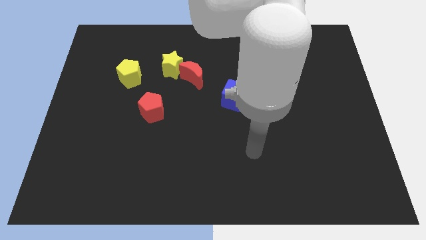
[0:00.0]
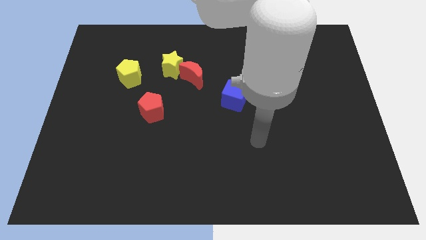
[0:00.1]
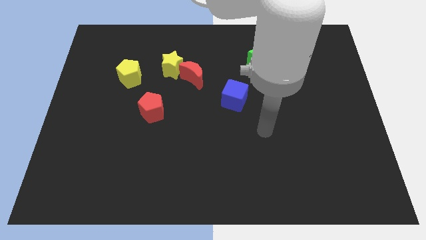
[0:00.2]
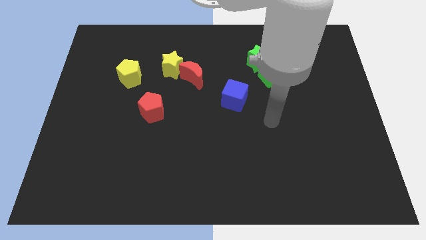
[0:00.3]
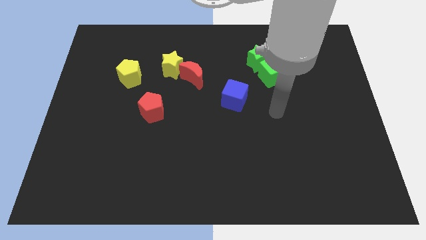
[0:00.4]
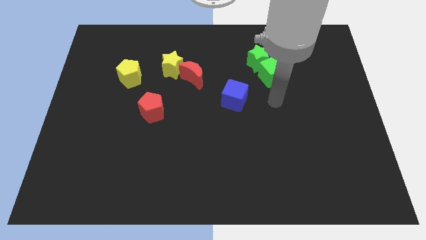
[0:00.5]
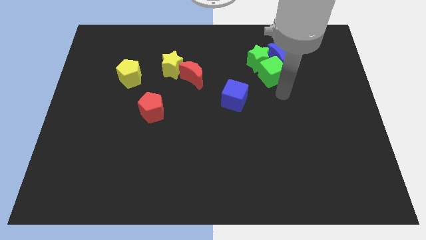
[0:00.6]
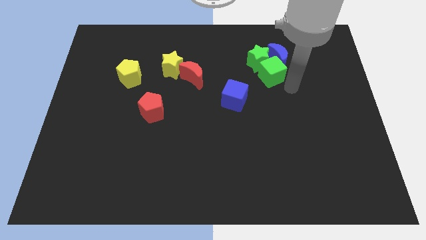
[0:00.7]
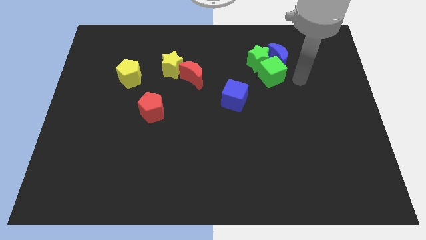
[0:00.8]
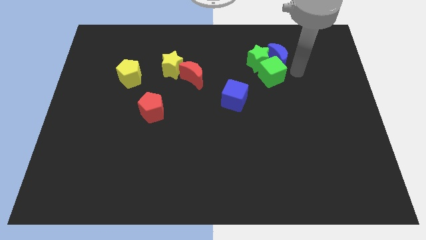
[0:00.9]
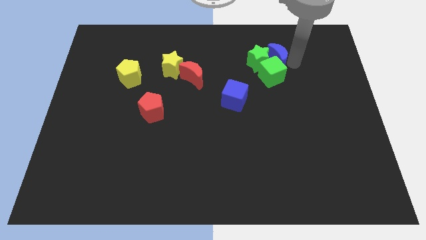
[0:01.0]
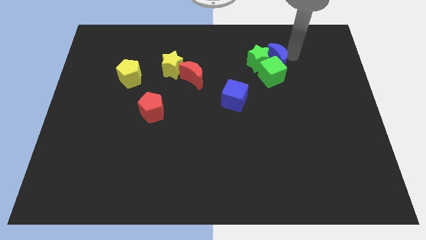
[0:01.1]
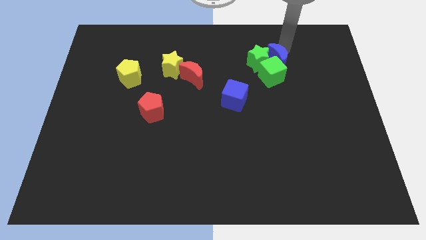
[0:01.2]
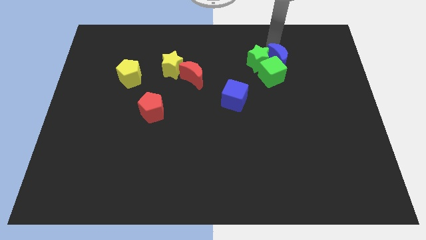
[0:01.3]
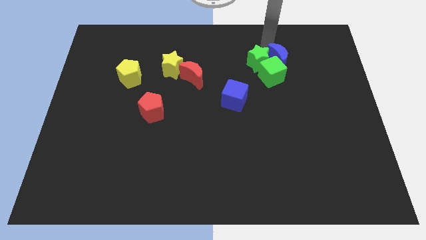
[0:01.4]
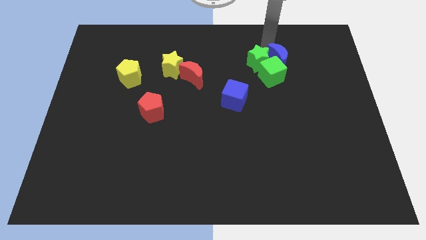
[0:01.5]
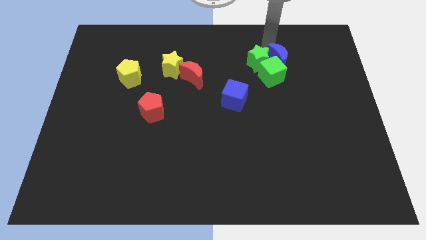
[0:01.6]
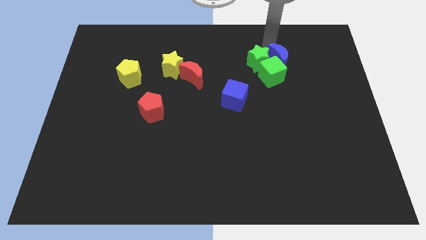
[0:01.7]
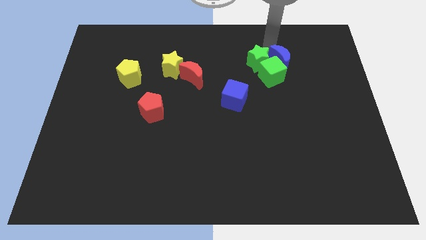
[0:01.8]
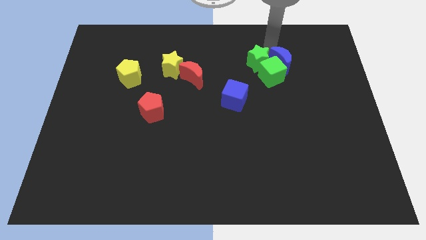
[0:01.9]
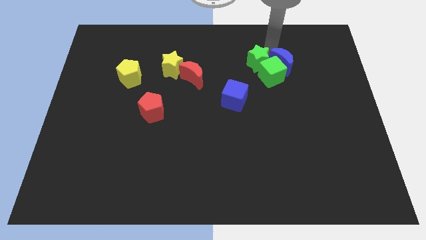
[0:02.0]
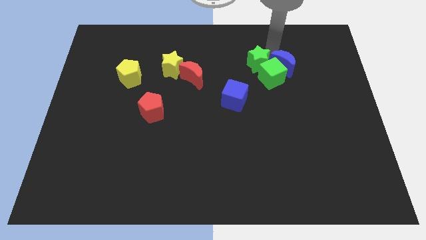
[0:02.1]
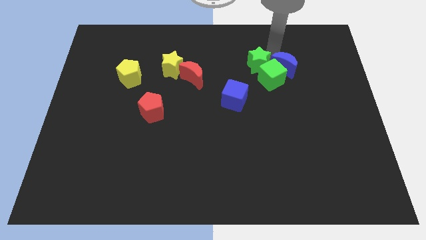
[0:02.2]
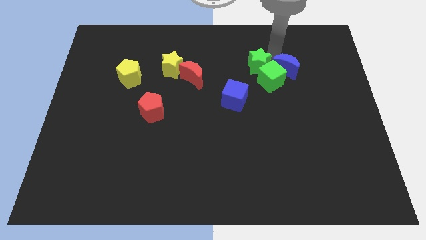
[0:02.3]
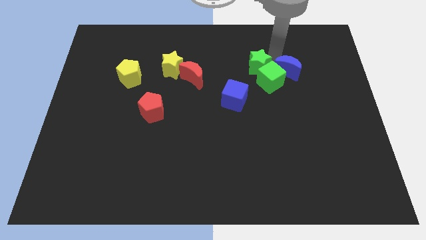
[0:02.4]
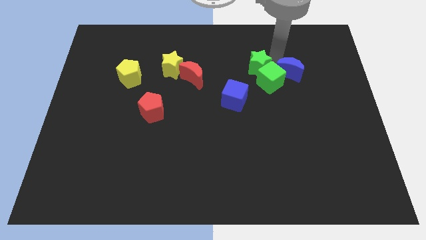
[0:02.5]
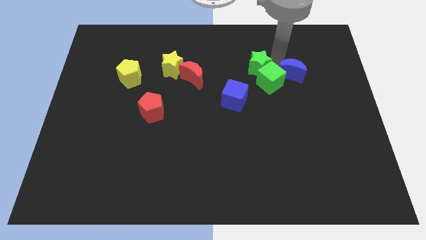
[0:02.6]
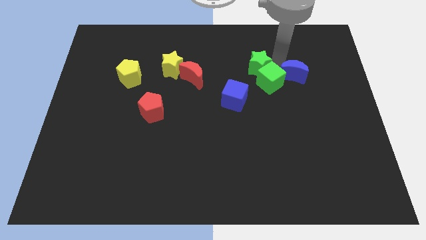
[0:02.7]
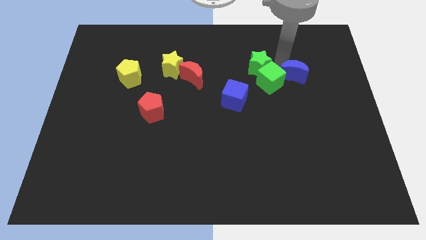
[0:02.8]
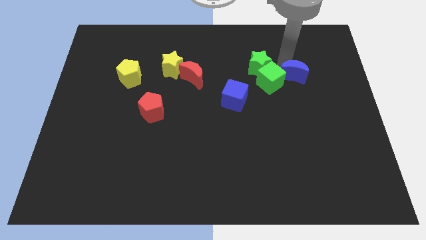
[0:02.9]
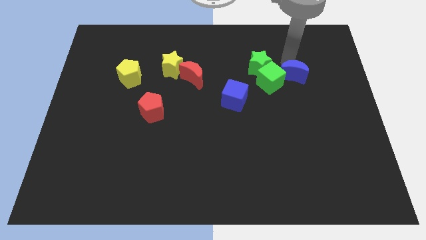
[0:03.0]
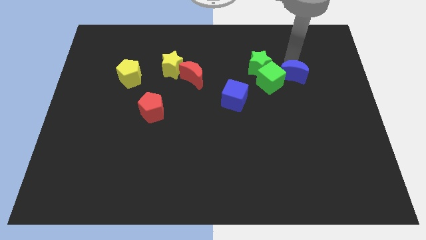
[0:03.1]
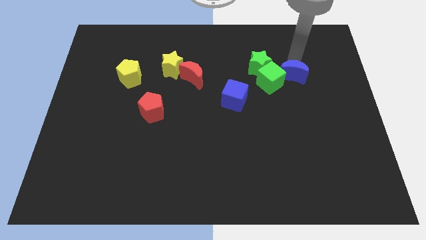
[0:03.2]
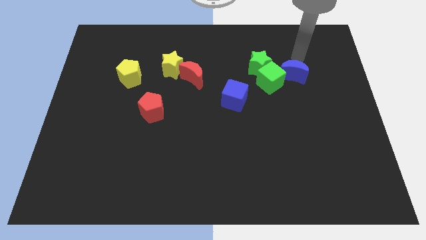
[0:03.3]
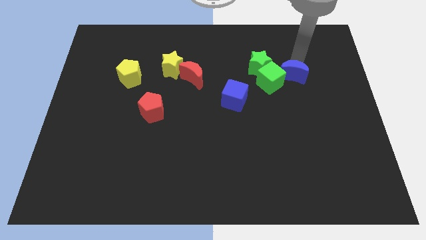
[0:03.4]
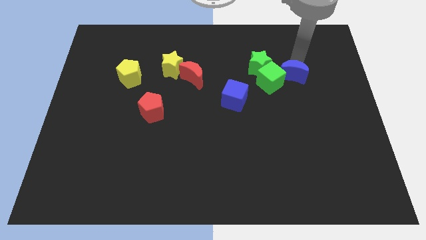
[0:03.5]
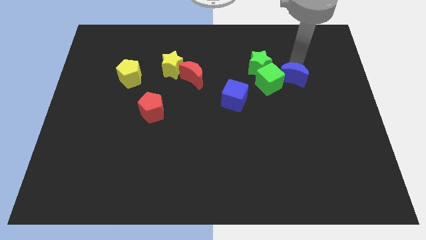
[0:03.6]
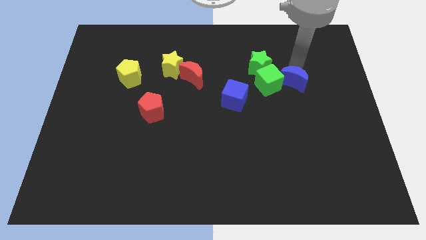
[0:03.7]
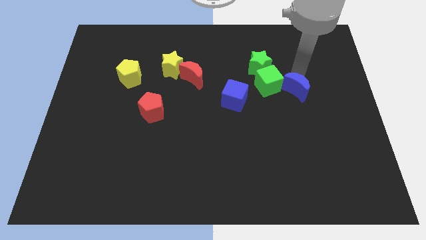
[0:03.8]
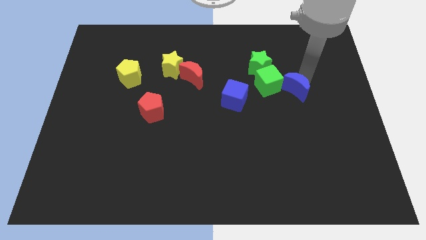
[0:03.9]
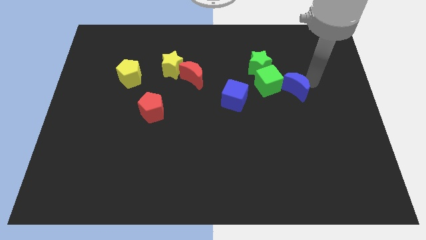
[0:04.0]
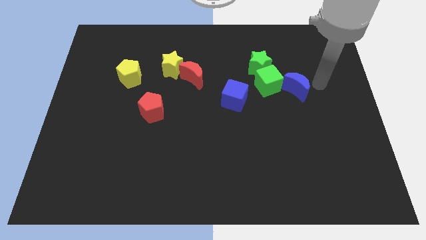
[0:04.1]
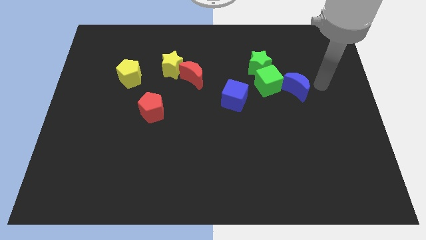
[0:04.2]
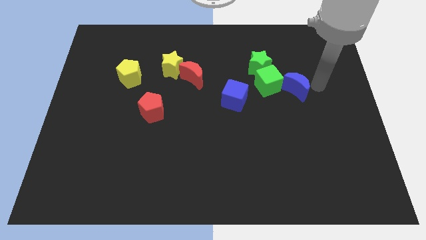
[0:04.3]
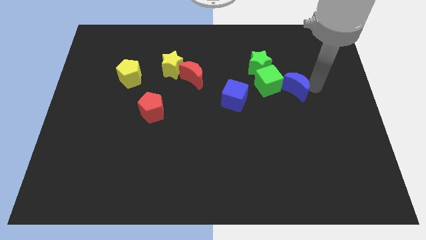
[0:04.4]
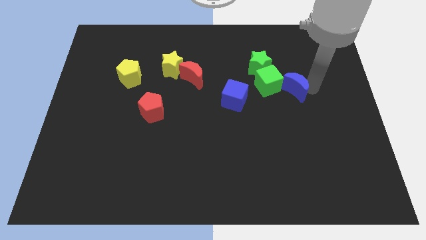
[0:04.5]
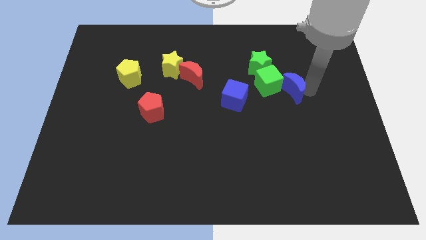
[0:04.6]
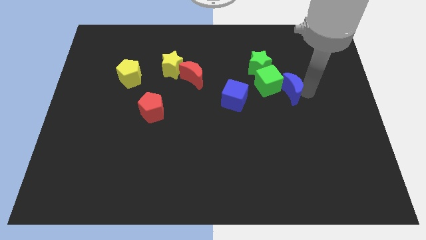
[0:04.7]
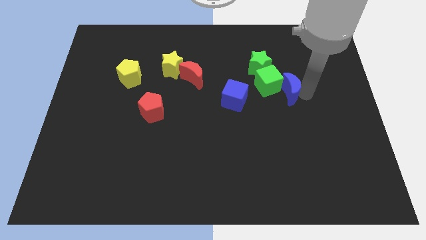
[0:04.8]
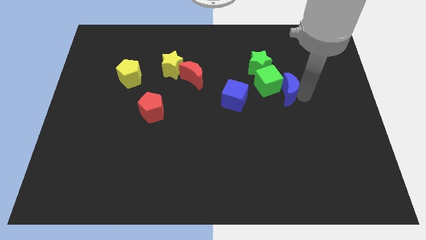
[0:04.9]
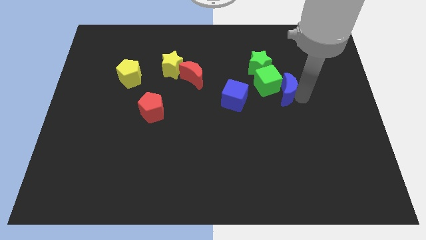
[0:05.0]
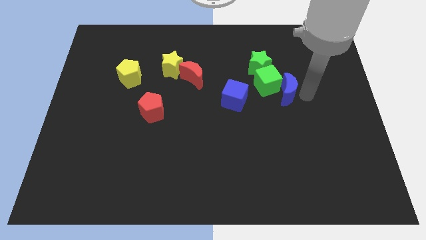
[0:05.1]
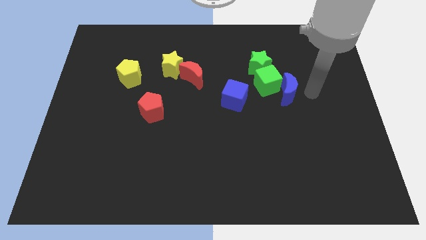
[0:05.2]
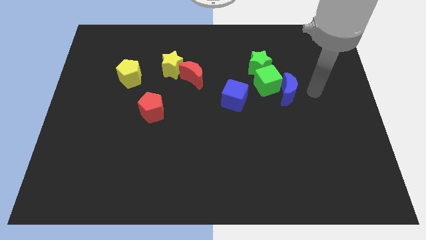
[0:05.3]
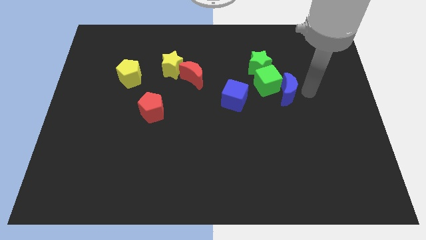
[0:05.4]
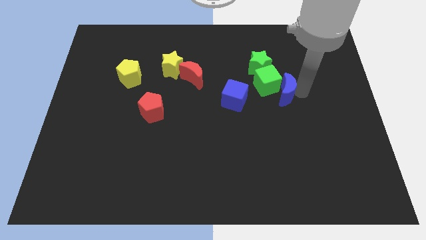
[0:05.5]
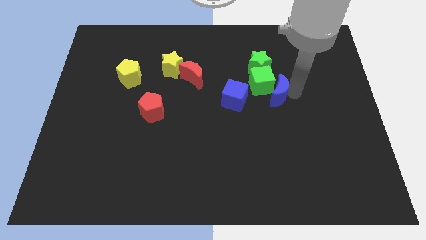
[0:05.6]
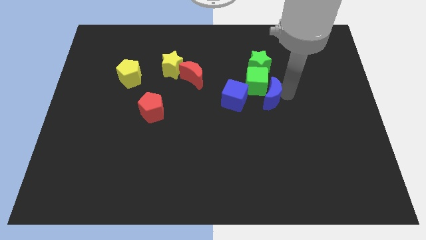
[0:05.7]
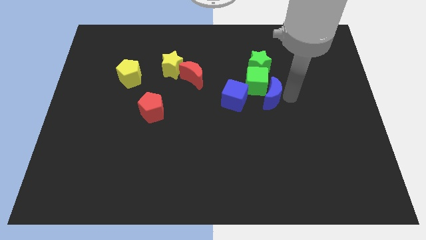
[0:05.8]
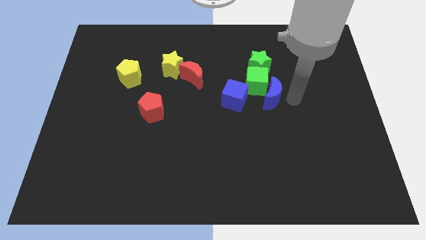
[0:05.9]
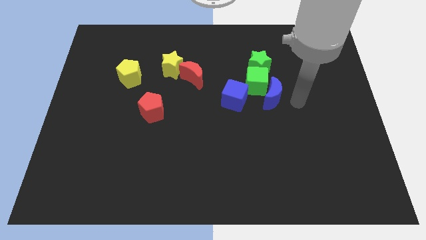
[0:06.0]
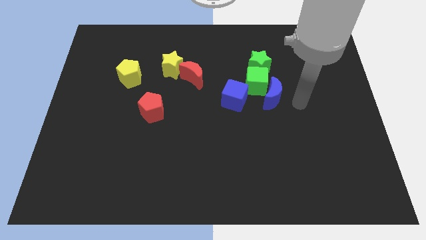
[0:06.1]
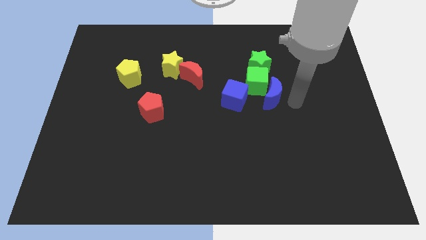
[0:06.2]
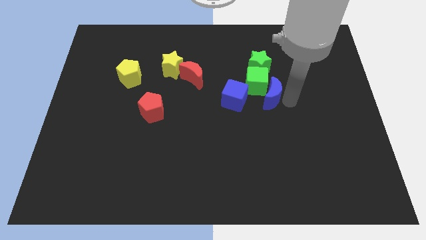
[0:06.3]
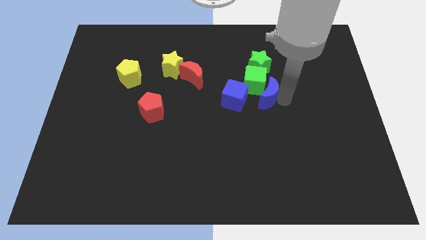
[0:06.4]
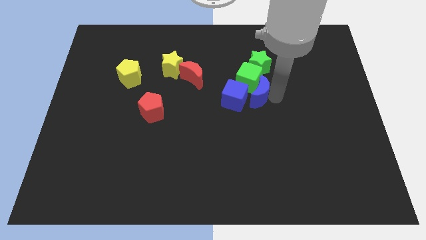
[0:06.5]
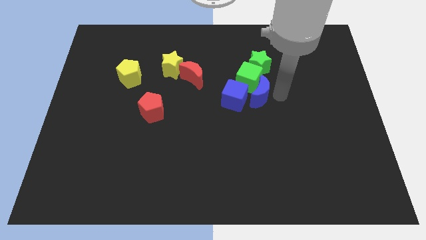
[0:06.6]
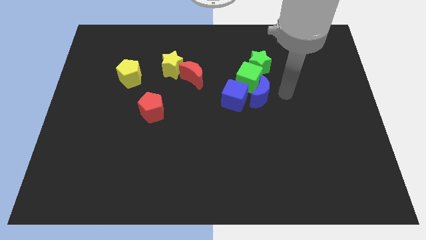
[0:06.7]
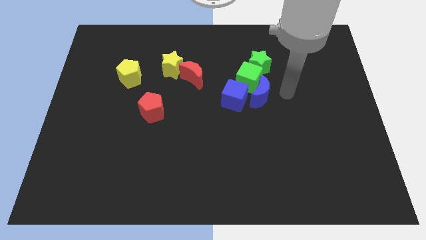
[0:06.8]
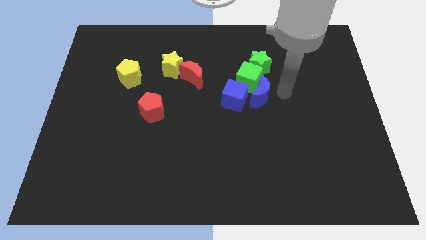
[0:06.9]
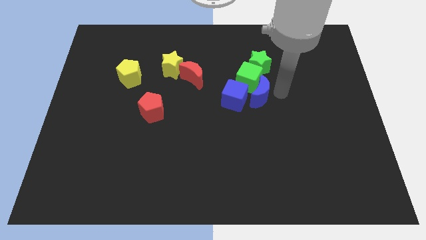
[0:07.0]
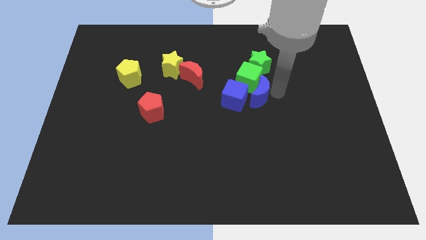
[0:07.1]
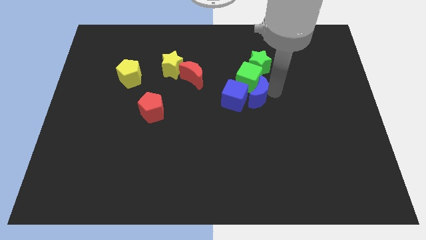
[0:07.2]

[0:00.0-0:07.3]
move the blue moon next to the blue cube
